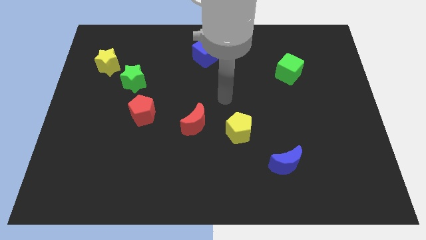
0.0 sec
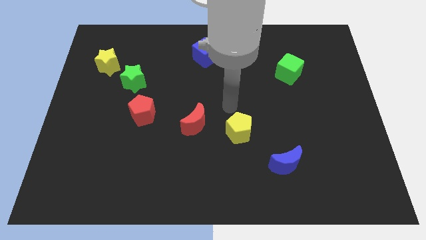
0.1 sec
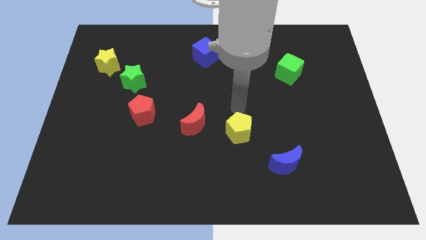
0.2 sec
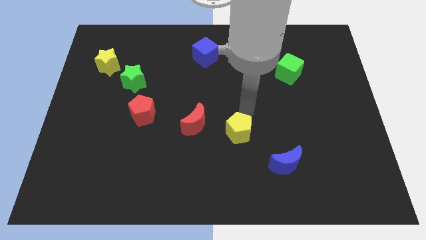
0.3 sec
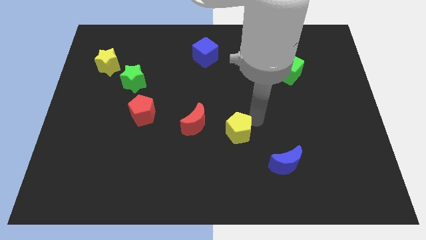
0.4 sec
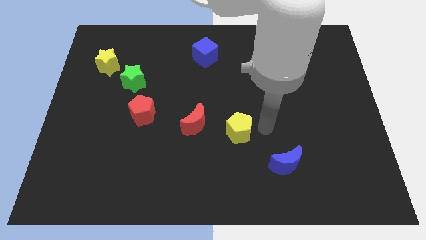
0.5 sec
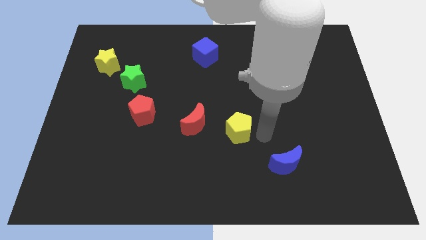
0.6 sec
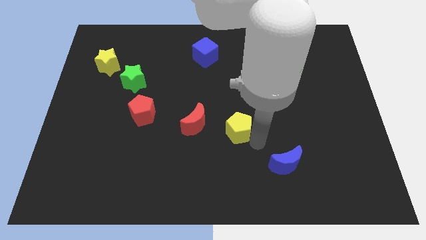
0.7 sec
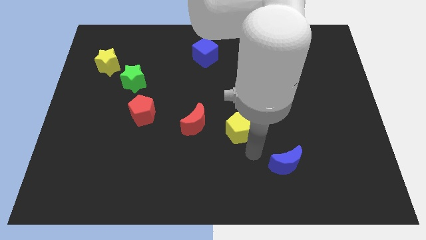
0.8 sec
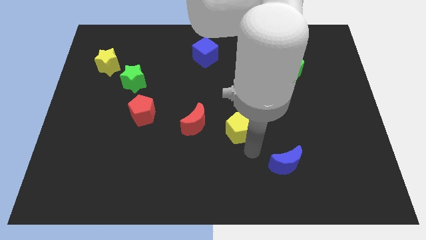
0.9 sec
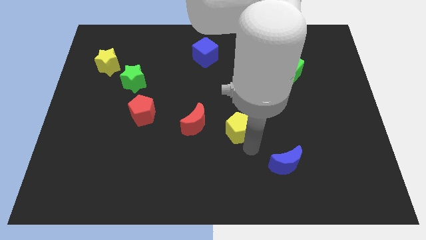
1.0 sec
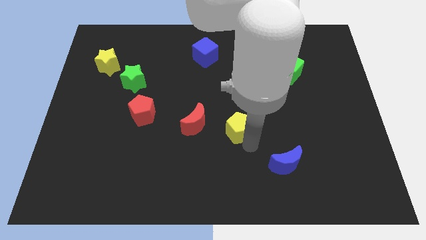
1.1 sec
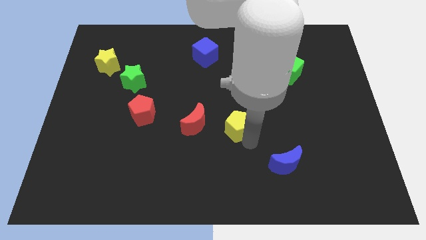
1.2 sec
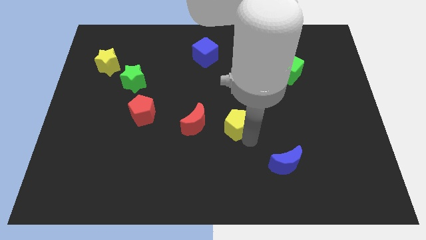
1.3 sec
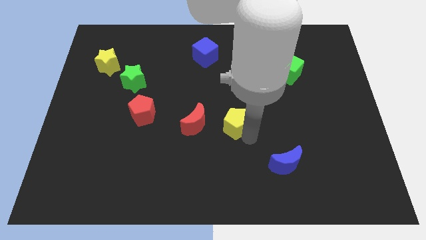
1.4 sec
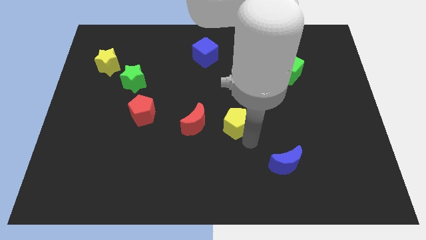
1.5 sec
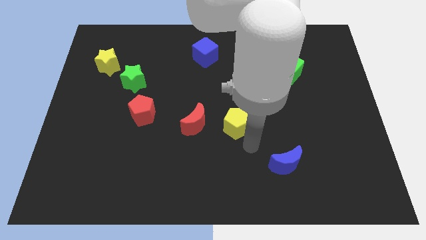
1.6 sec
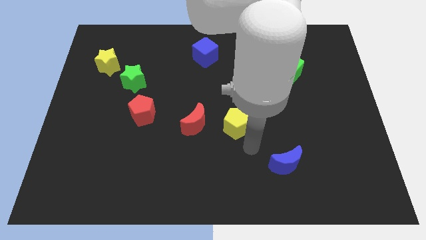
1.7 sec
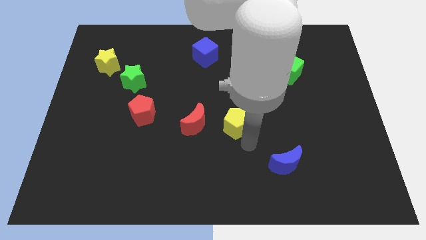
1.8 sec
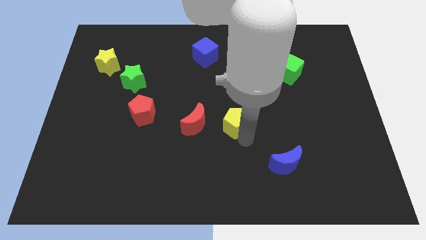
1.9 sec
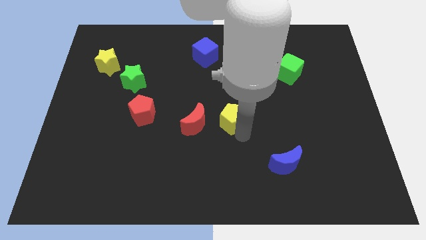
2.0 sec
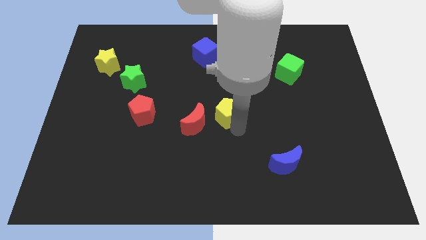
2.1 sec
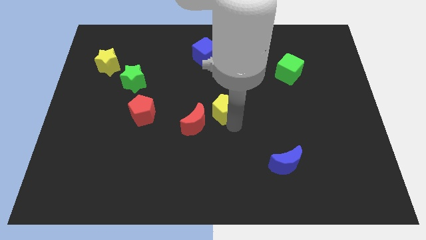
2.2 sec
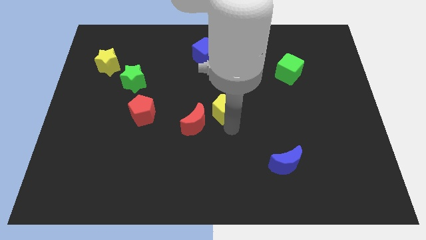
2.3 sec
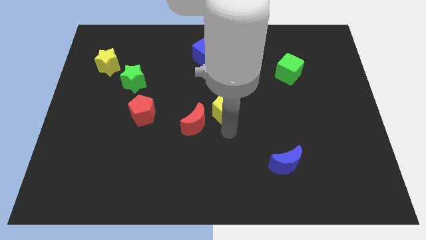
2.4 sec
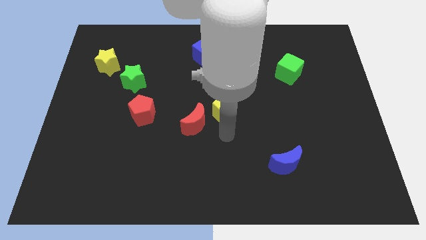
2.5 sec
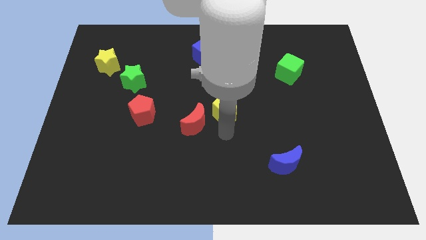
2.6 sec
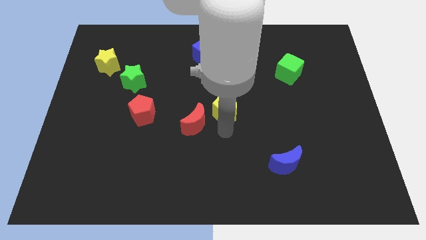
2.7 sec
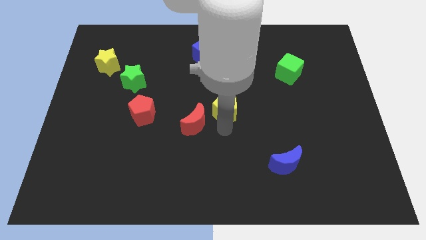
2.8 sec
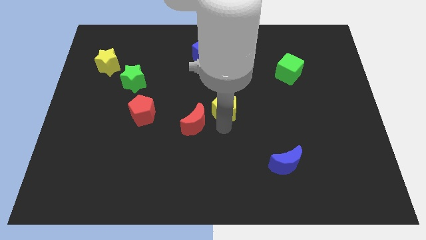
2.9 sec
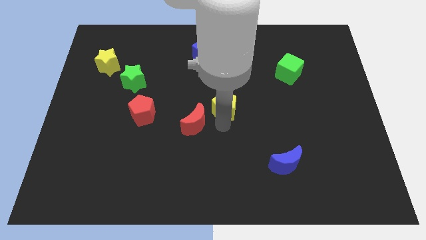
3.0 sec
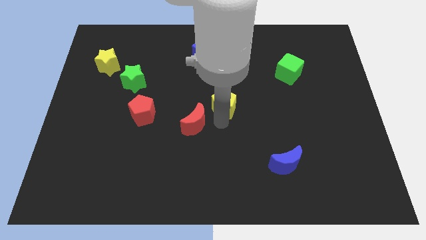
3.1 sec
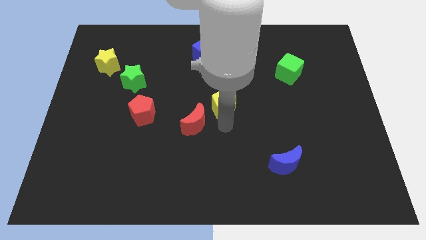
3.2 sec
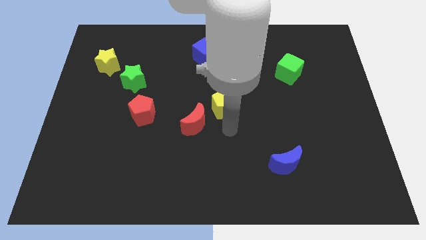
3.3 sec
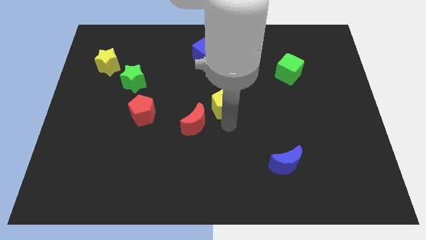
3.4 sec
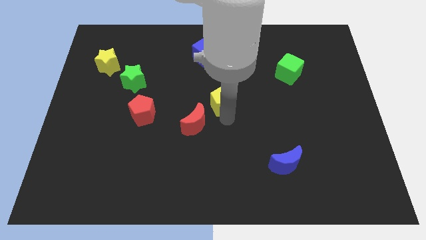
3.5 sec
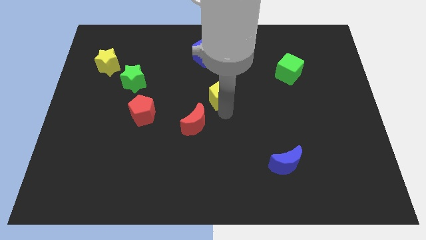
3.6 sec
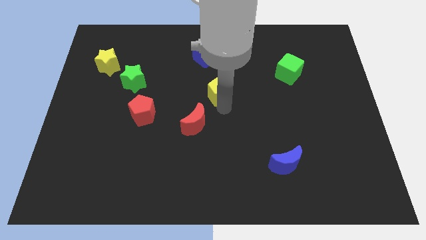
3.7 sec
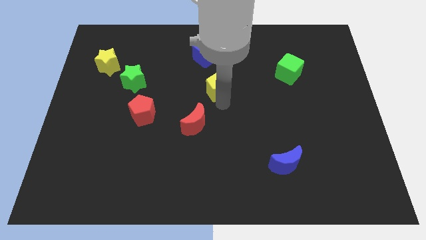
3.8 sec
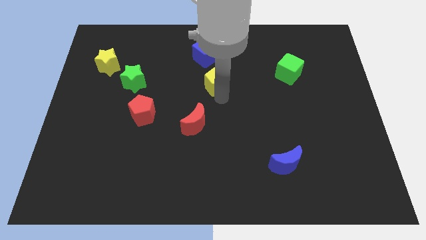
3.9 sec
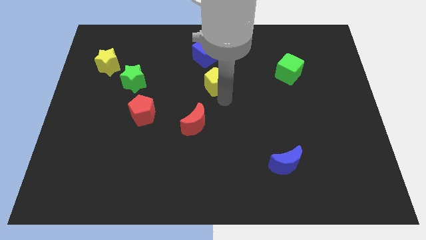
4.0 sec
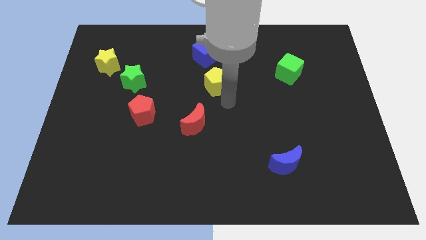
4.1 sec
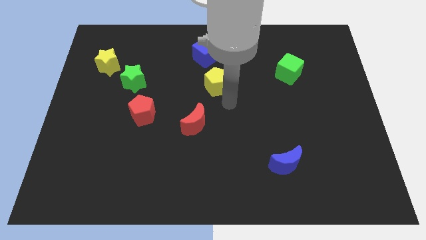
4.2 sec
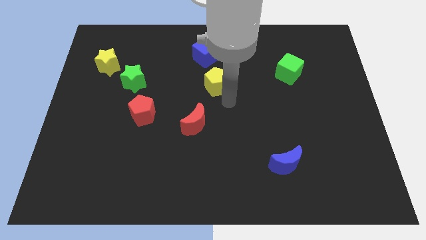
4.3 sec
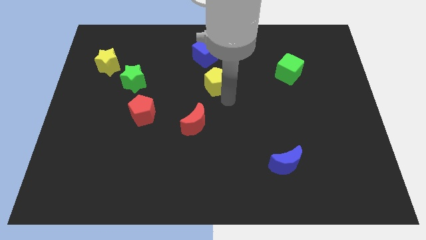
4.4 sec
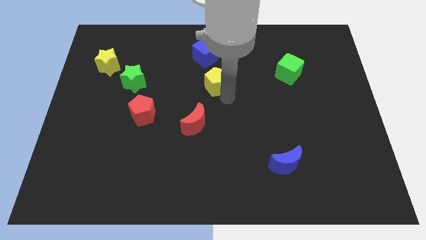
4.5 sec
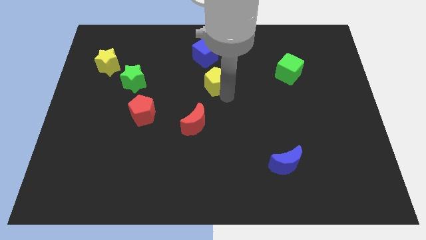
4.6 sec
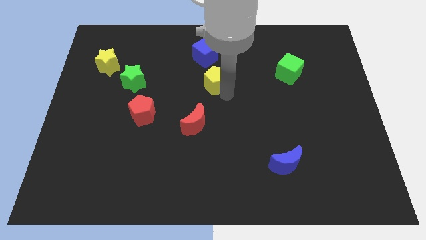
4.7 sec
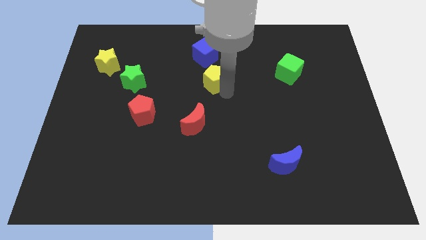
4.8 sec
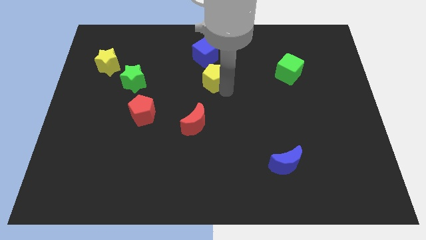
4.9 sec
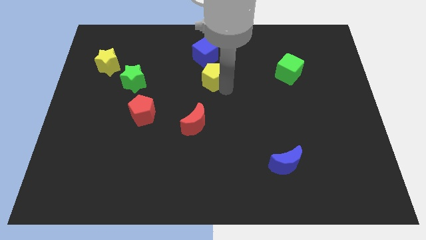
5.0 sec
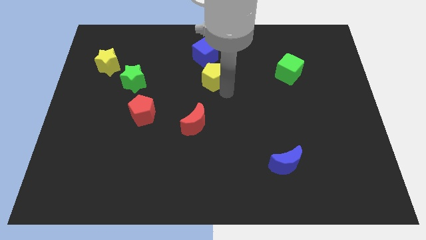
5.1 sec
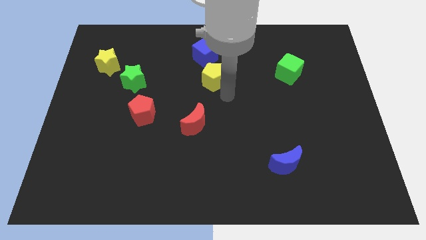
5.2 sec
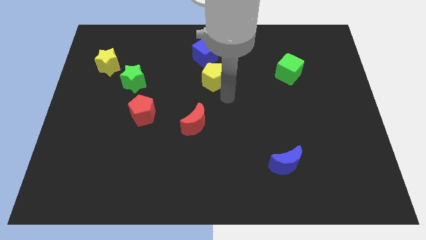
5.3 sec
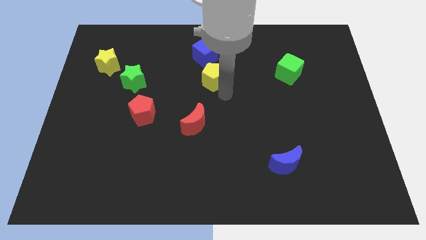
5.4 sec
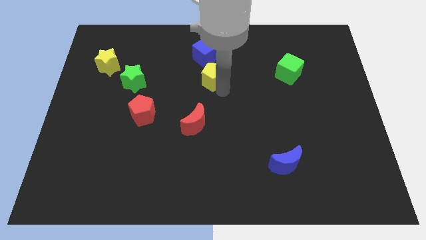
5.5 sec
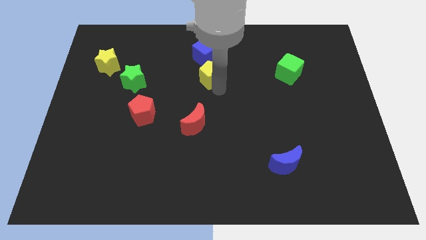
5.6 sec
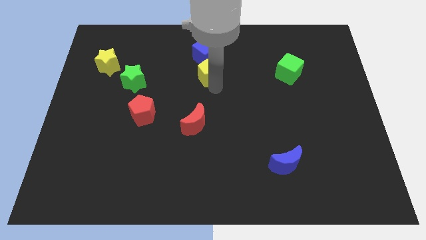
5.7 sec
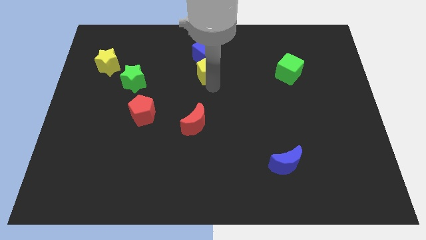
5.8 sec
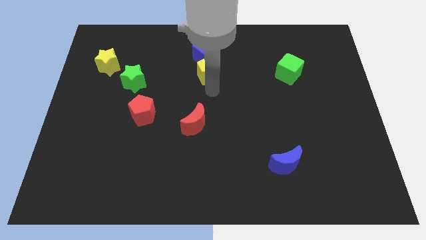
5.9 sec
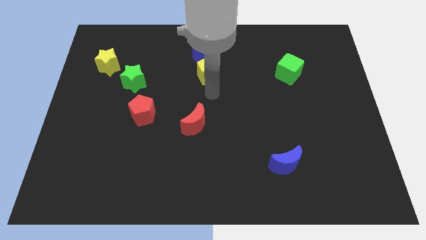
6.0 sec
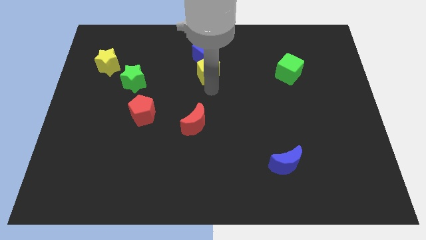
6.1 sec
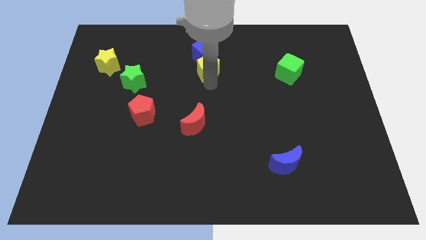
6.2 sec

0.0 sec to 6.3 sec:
slide the yellow pentagon close to the blue cube
